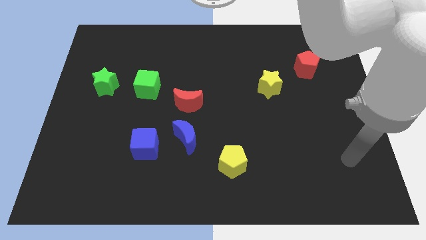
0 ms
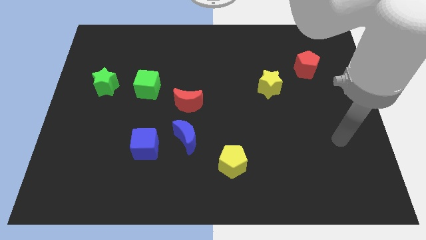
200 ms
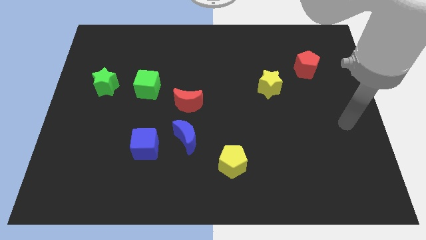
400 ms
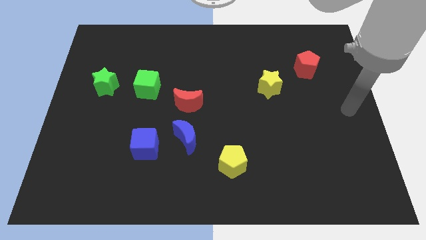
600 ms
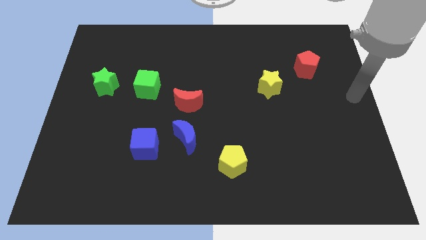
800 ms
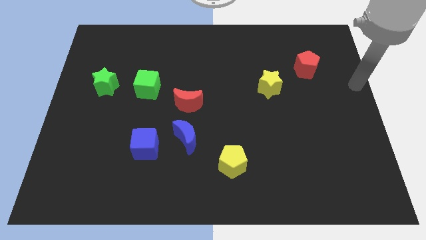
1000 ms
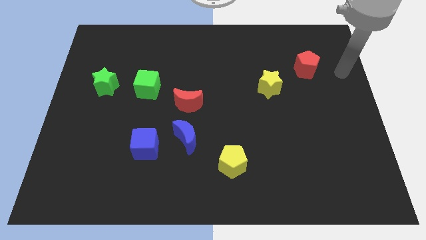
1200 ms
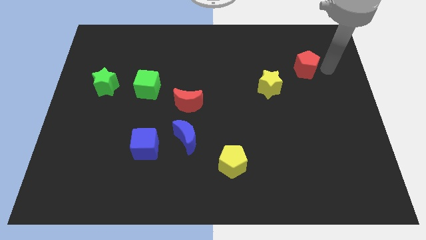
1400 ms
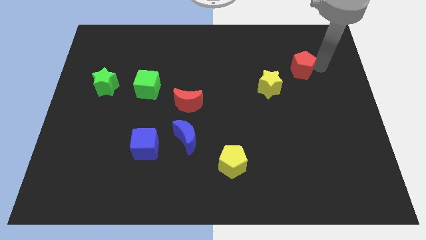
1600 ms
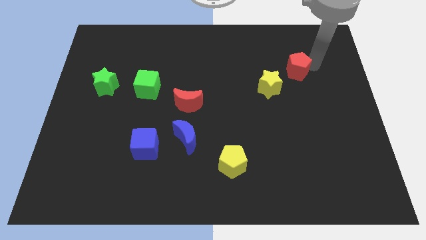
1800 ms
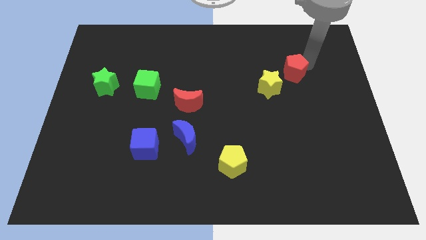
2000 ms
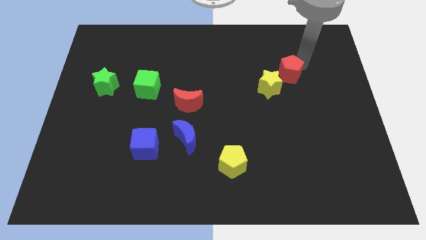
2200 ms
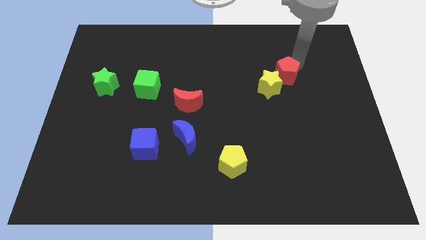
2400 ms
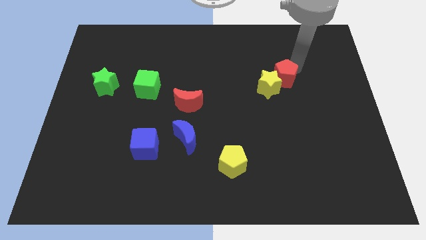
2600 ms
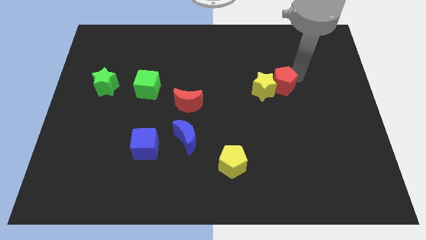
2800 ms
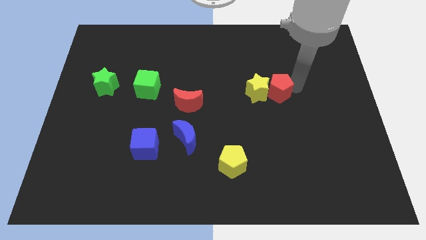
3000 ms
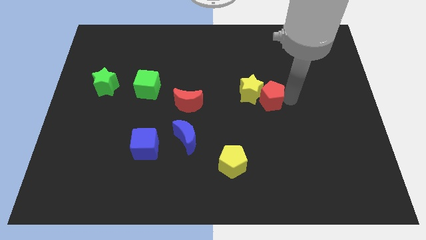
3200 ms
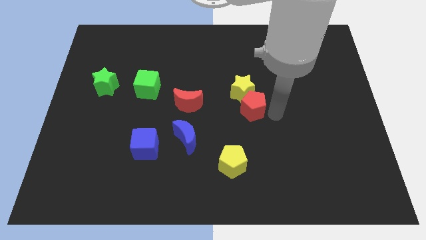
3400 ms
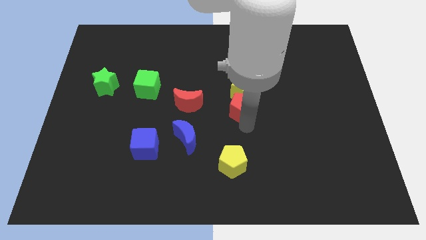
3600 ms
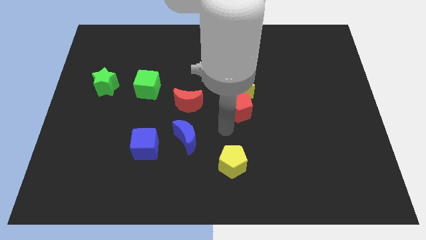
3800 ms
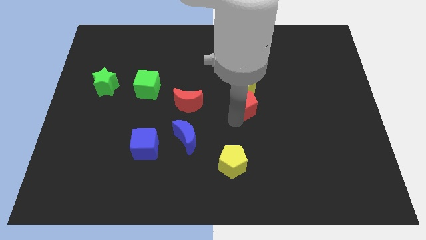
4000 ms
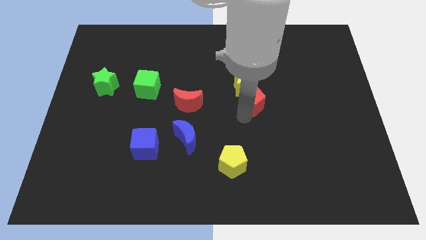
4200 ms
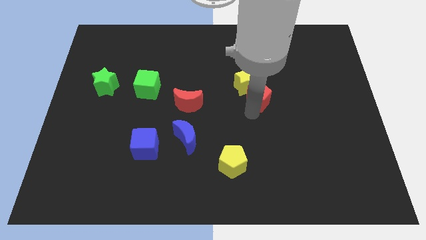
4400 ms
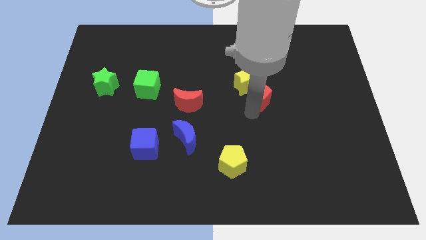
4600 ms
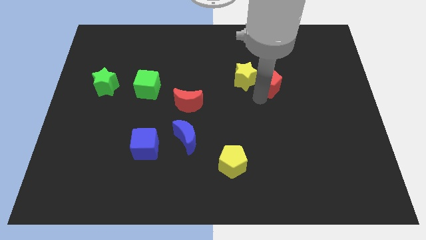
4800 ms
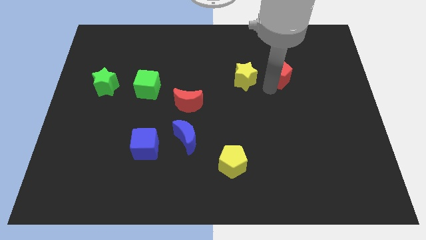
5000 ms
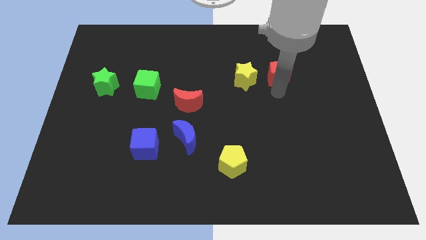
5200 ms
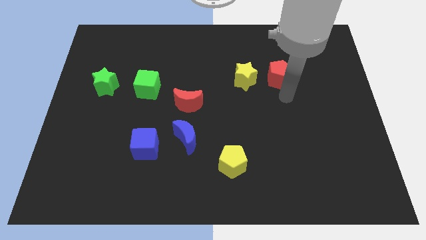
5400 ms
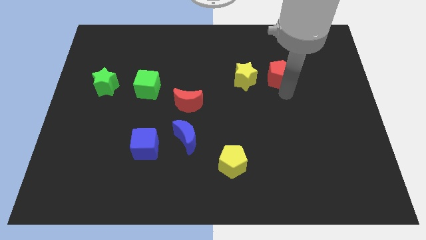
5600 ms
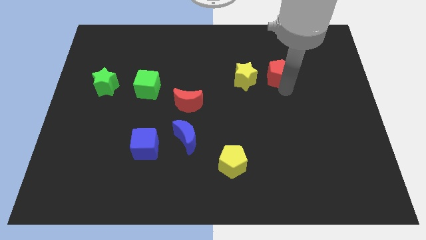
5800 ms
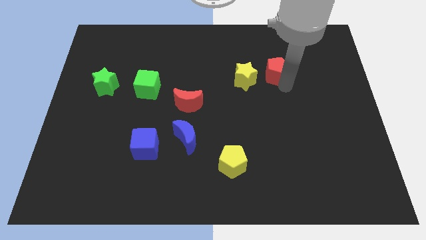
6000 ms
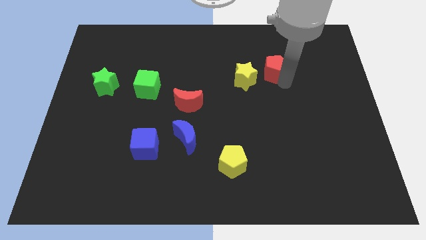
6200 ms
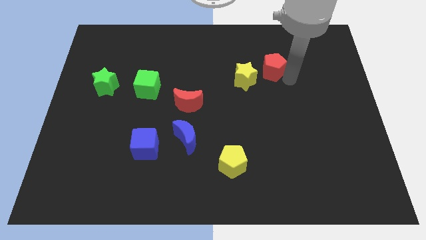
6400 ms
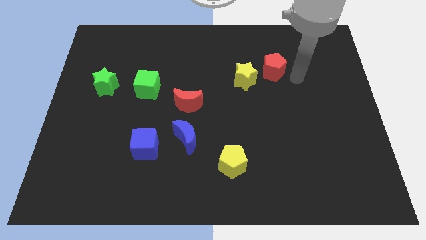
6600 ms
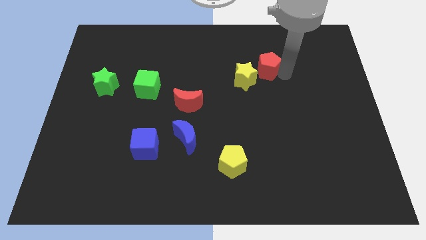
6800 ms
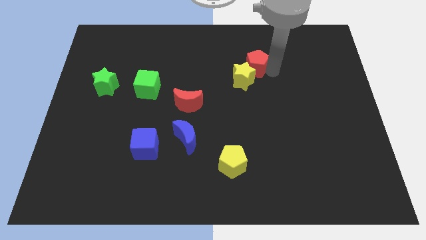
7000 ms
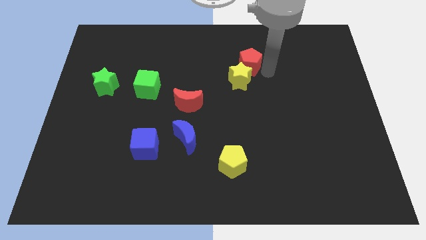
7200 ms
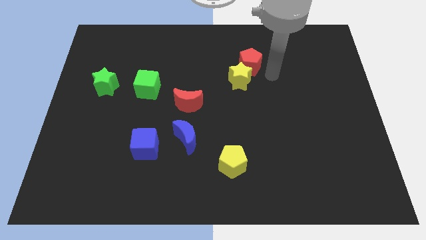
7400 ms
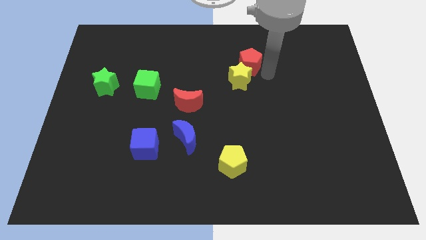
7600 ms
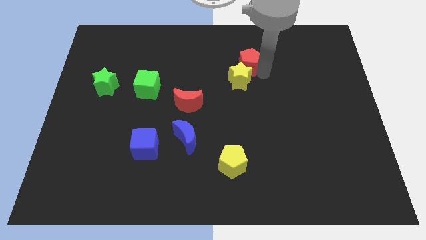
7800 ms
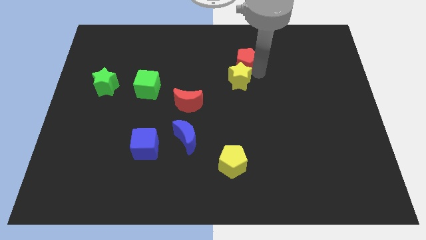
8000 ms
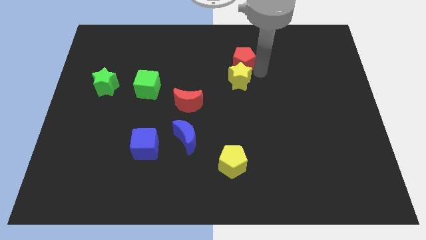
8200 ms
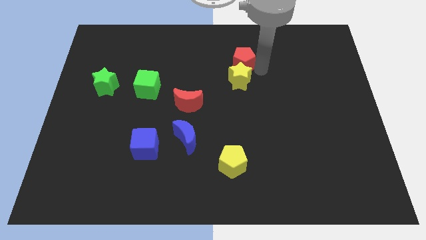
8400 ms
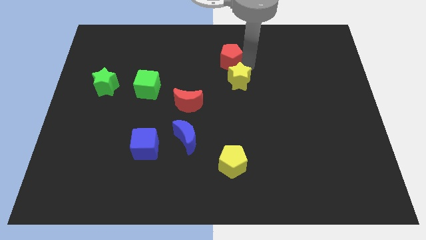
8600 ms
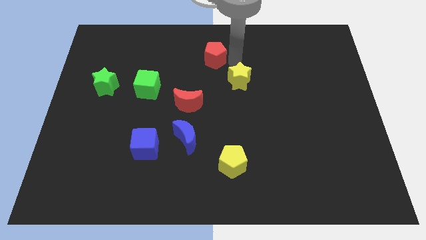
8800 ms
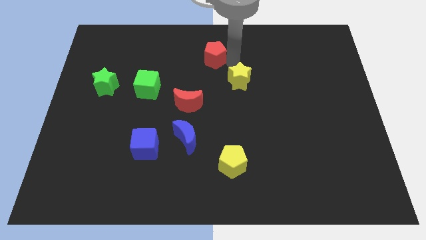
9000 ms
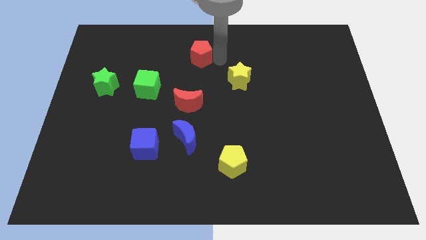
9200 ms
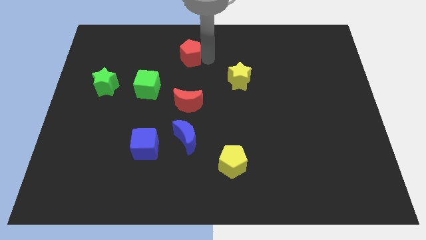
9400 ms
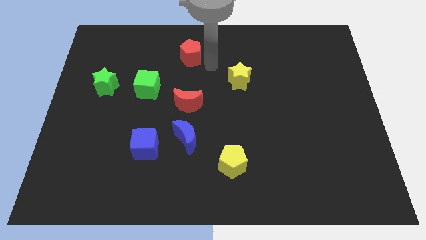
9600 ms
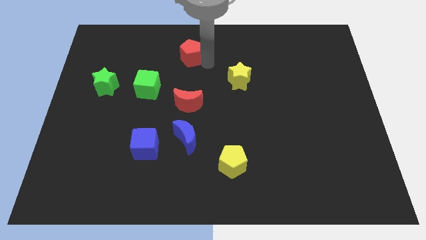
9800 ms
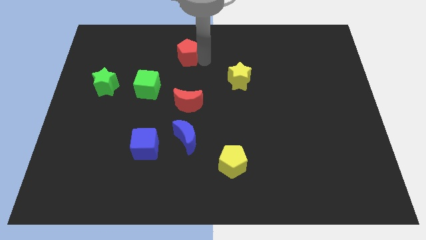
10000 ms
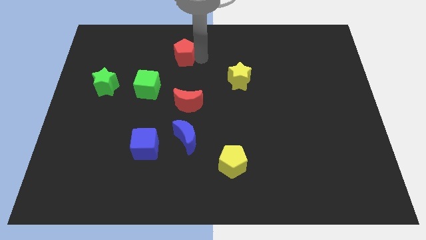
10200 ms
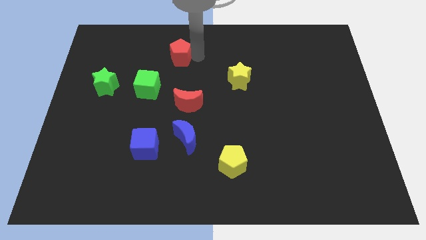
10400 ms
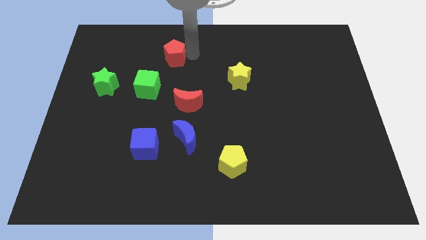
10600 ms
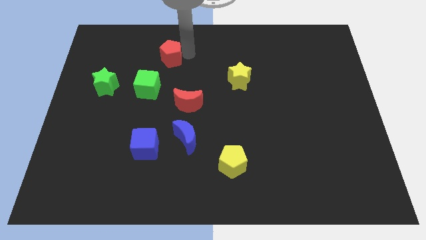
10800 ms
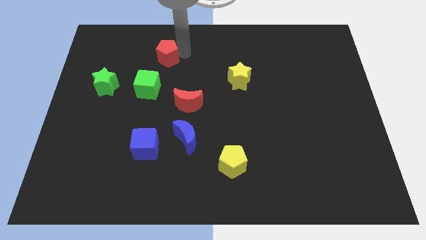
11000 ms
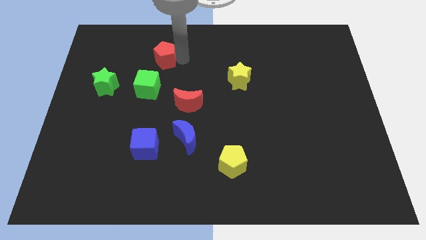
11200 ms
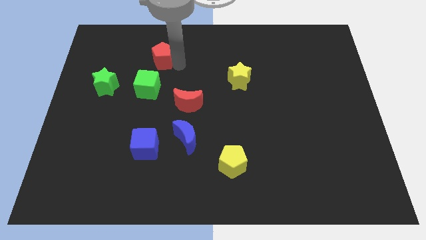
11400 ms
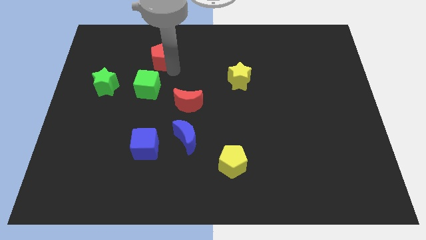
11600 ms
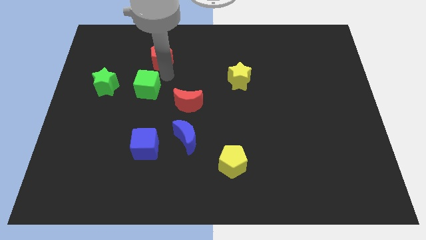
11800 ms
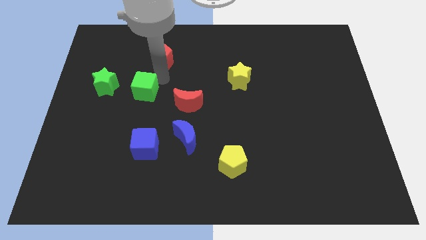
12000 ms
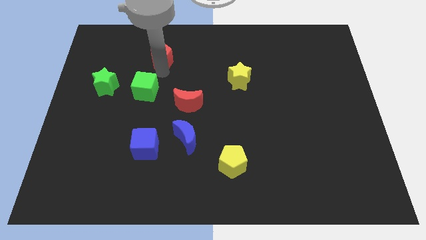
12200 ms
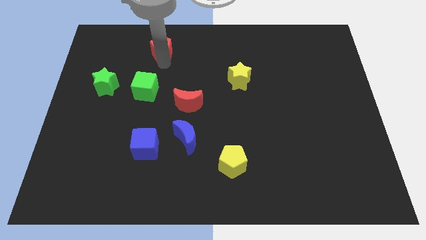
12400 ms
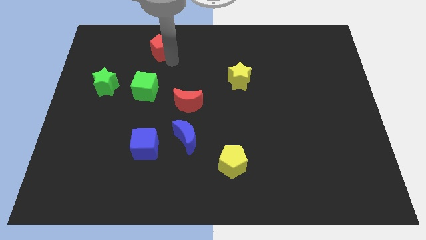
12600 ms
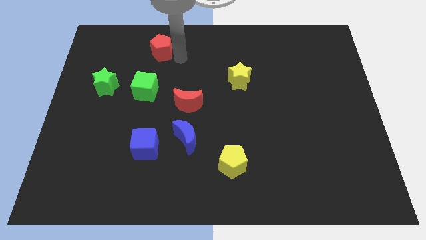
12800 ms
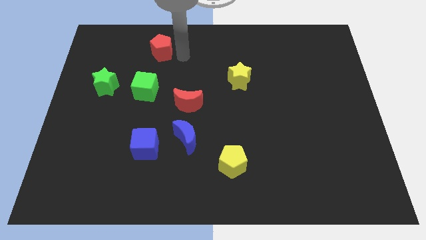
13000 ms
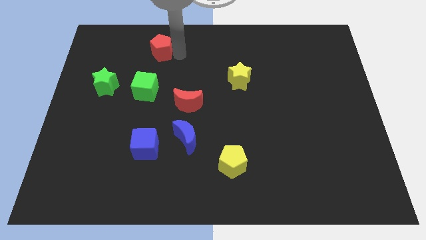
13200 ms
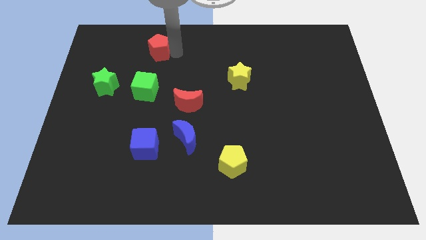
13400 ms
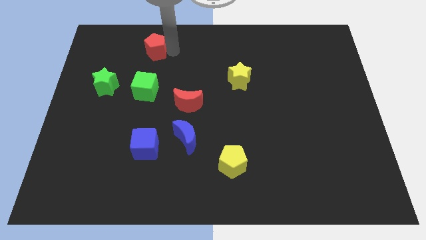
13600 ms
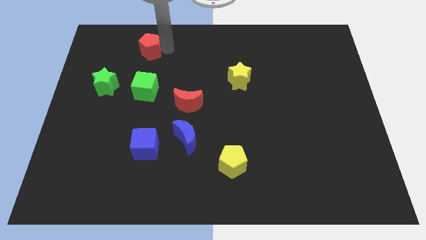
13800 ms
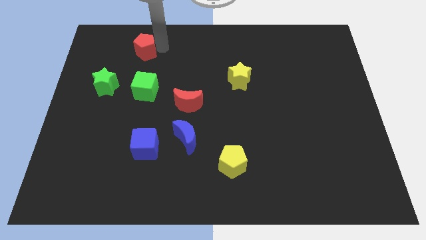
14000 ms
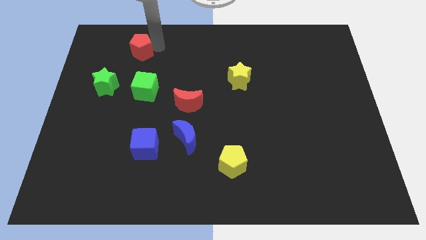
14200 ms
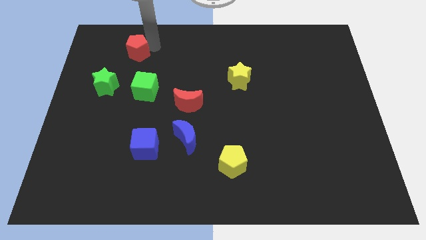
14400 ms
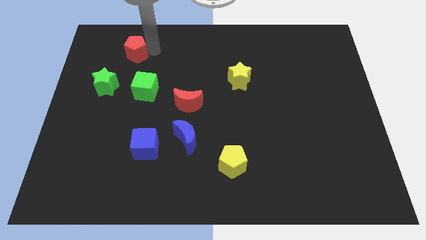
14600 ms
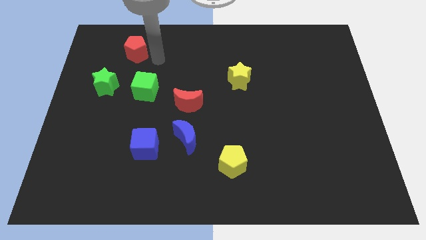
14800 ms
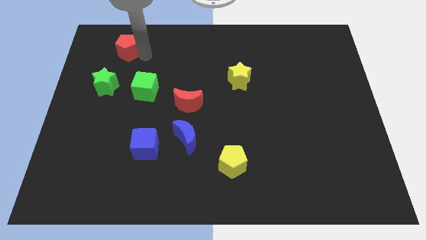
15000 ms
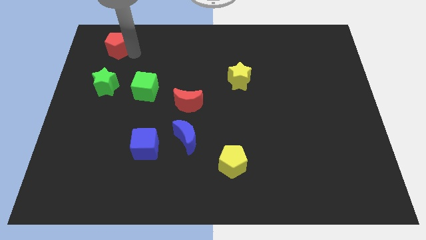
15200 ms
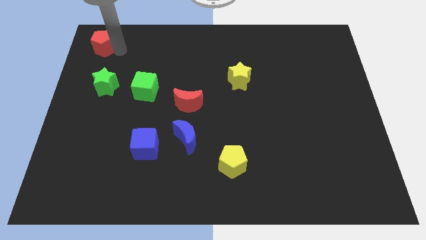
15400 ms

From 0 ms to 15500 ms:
put the red pentagon to the top left
